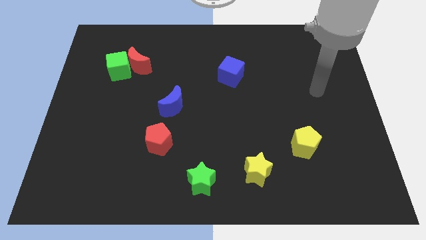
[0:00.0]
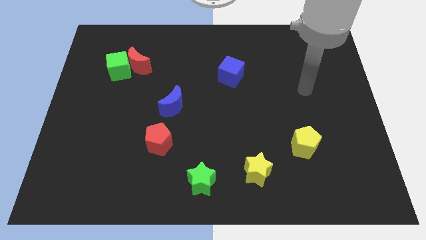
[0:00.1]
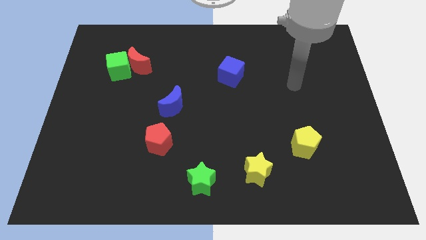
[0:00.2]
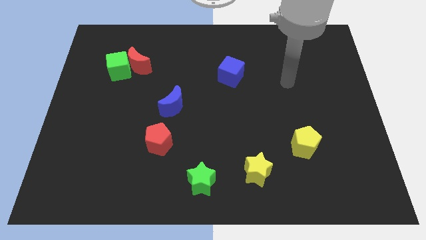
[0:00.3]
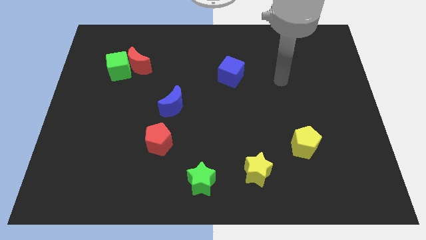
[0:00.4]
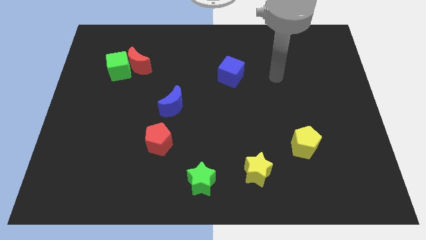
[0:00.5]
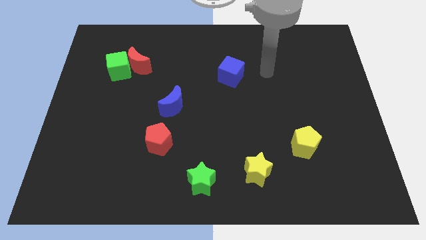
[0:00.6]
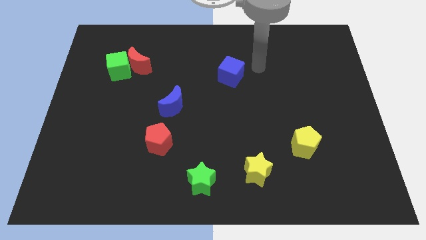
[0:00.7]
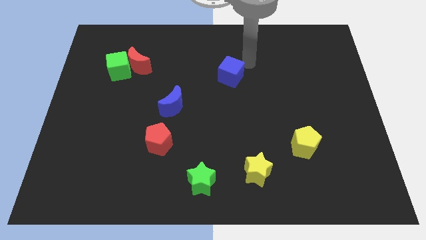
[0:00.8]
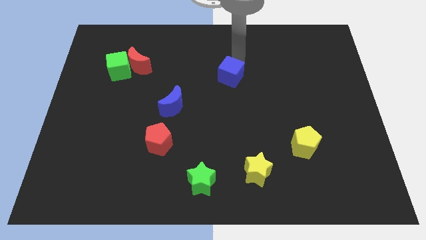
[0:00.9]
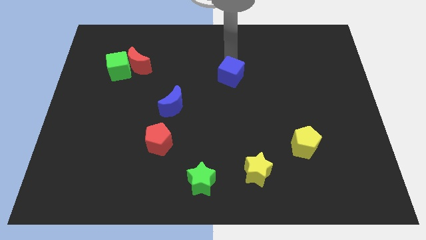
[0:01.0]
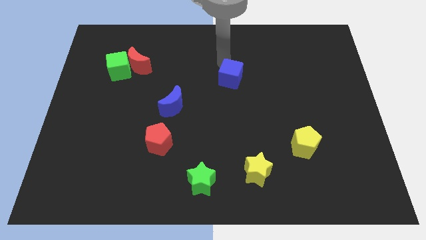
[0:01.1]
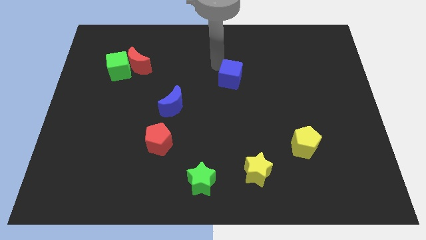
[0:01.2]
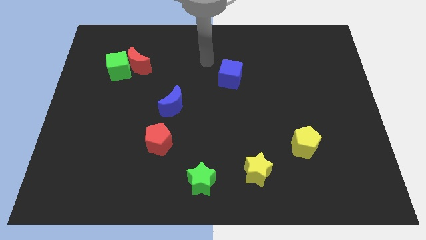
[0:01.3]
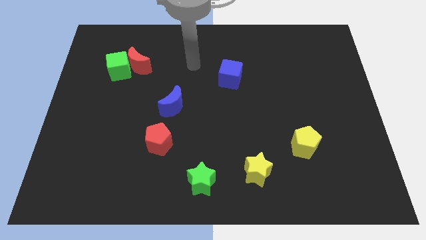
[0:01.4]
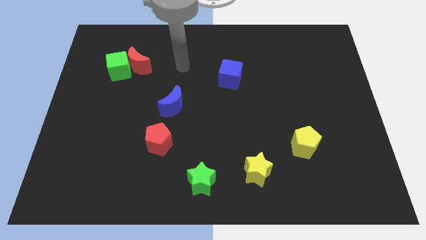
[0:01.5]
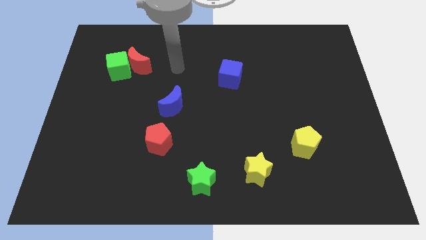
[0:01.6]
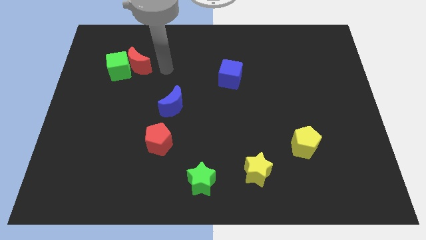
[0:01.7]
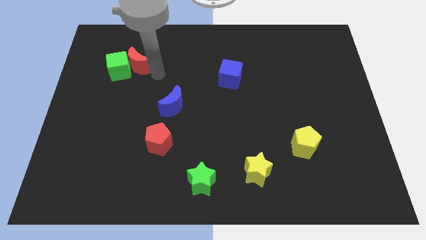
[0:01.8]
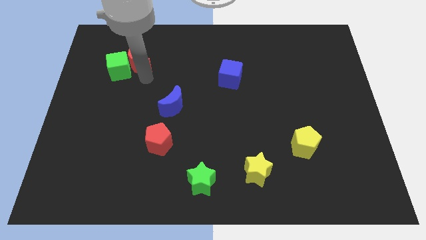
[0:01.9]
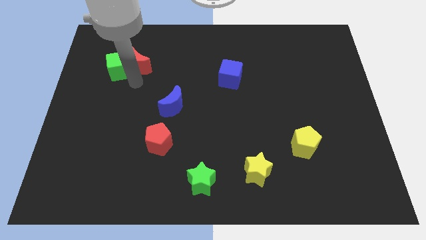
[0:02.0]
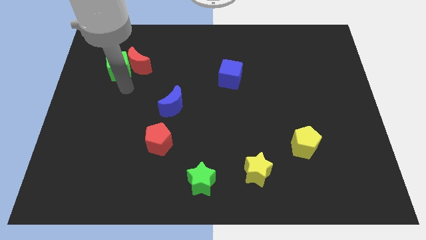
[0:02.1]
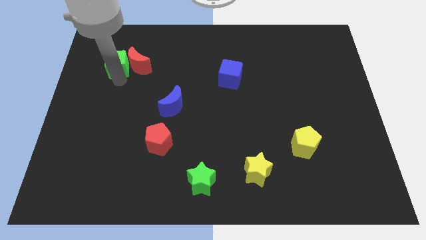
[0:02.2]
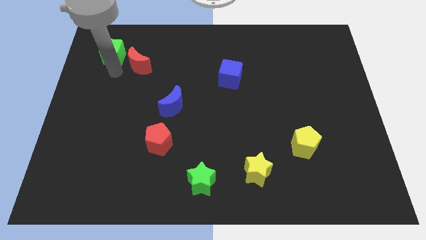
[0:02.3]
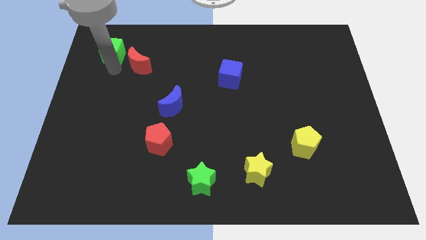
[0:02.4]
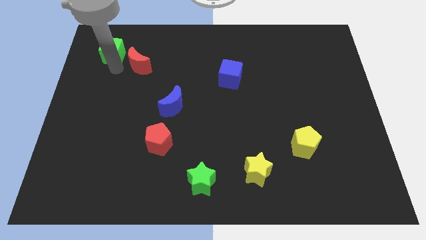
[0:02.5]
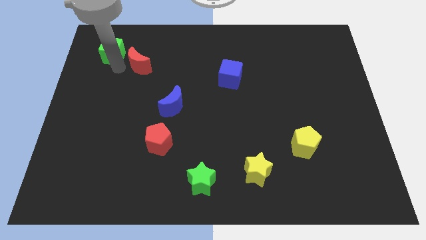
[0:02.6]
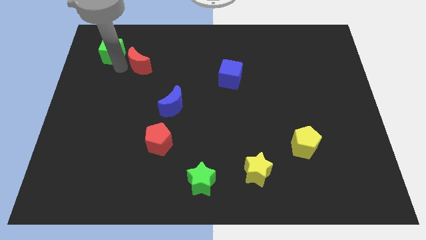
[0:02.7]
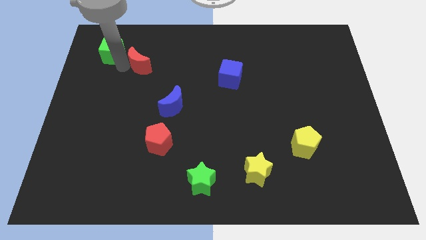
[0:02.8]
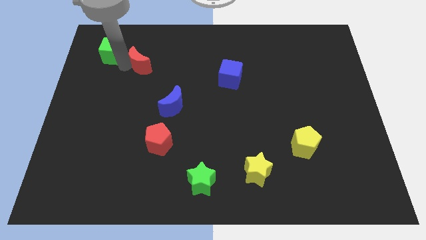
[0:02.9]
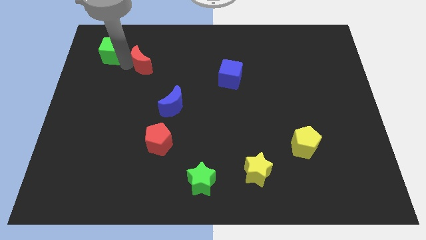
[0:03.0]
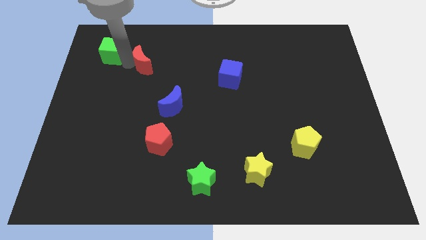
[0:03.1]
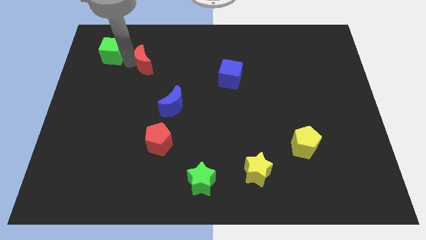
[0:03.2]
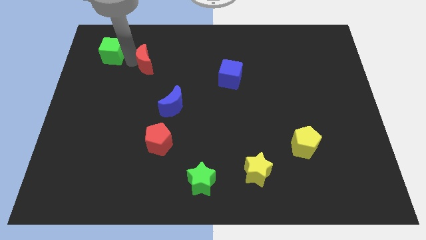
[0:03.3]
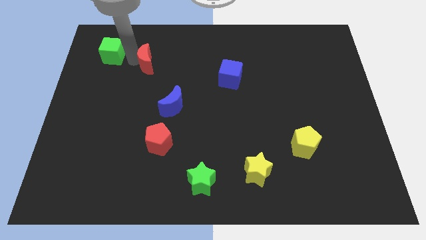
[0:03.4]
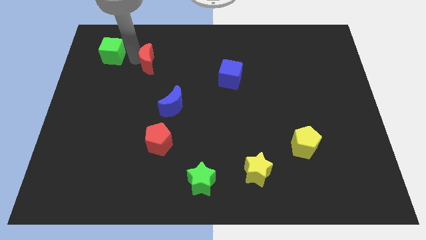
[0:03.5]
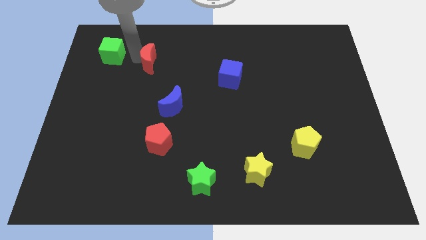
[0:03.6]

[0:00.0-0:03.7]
move the red moon away from the green cube

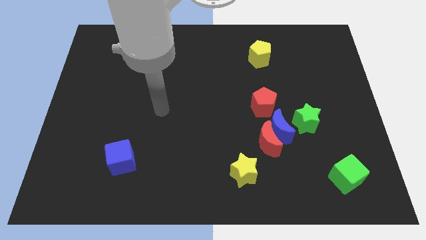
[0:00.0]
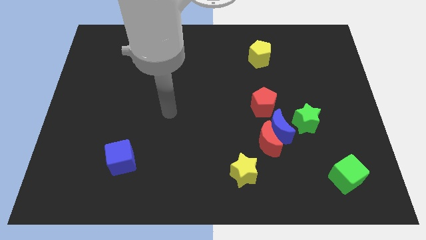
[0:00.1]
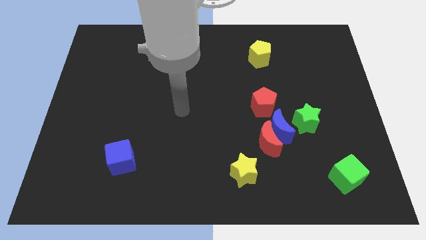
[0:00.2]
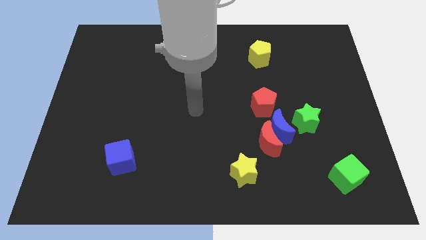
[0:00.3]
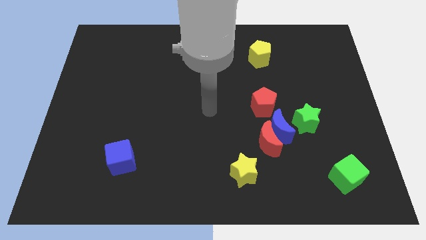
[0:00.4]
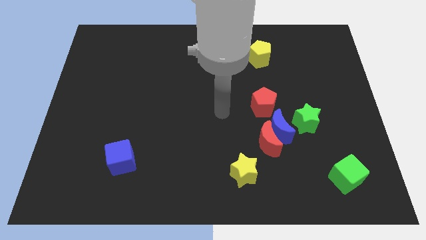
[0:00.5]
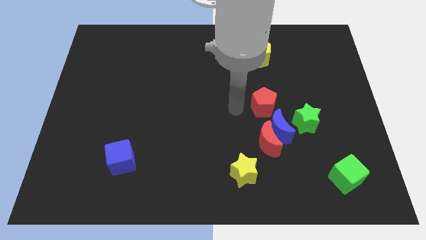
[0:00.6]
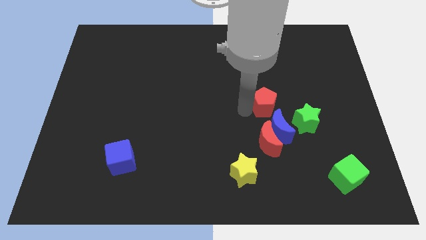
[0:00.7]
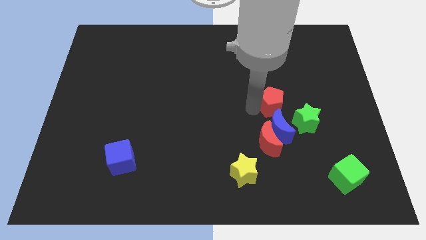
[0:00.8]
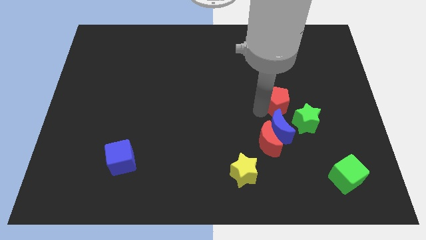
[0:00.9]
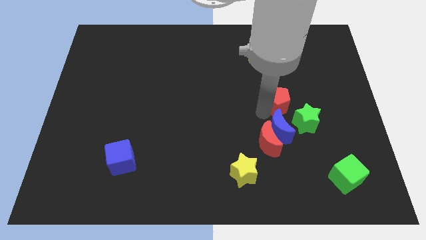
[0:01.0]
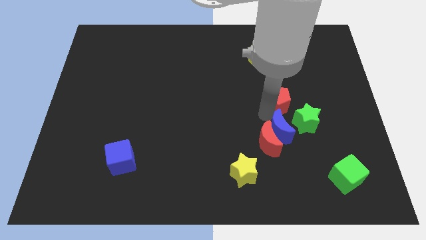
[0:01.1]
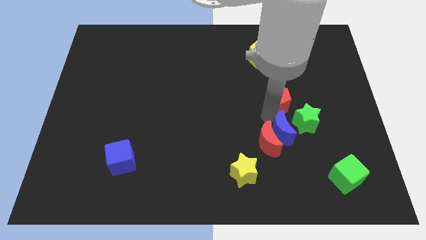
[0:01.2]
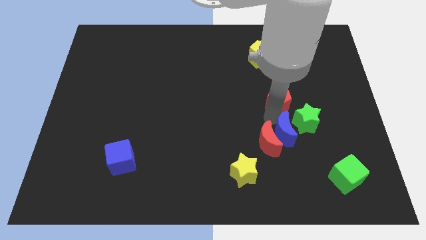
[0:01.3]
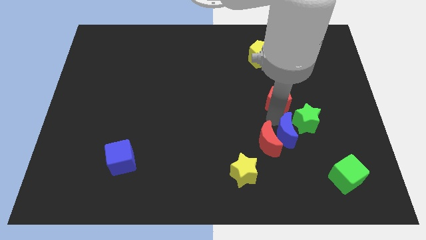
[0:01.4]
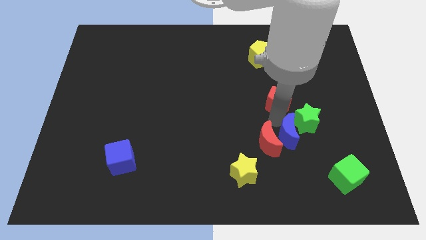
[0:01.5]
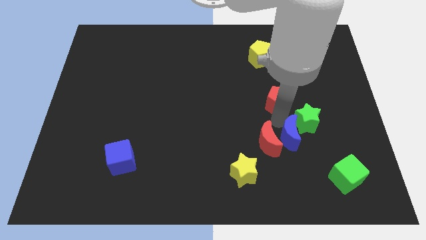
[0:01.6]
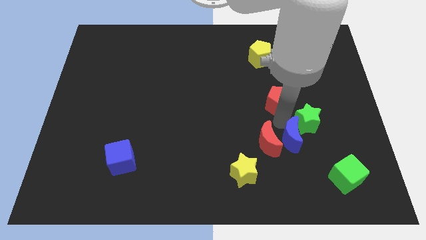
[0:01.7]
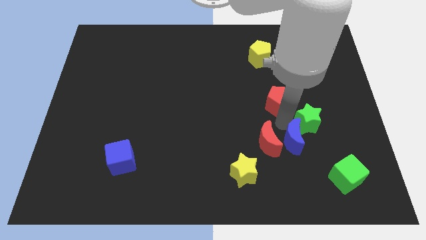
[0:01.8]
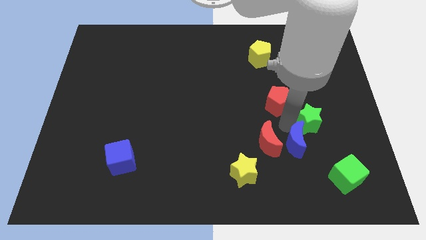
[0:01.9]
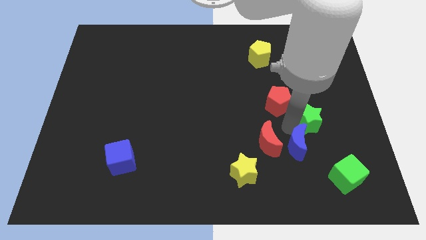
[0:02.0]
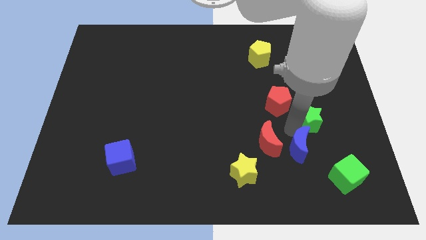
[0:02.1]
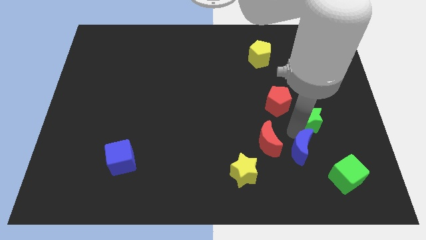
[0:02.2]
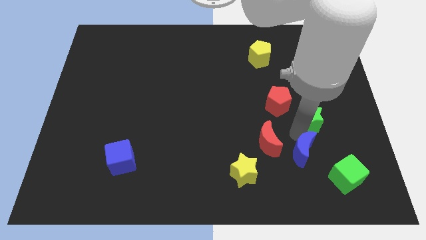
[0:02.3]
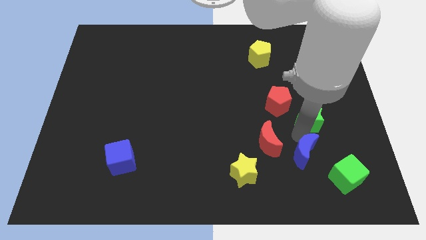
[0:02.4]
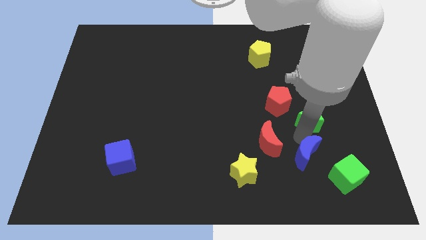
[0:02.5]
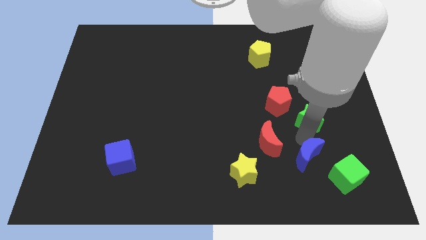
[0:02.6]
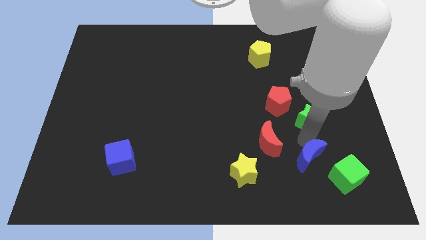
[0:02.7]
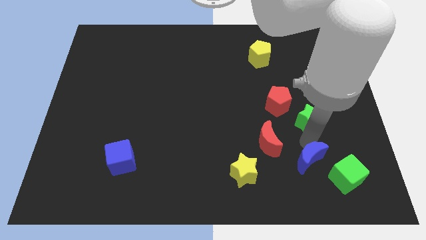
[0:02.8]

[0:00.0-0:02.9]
pull the blue moon apart from the red moon, green star, and red pentagon

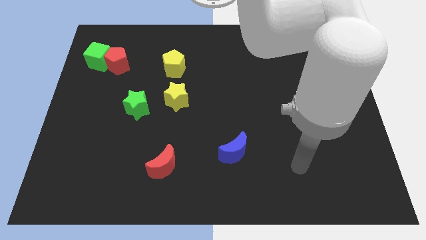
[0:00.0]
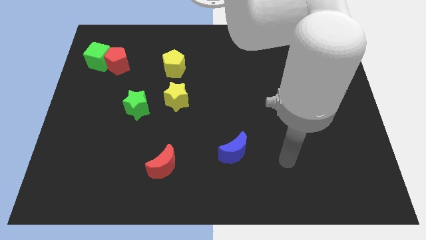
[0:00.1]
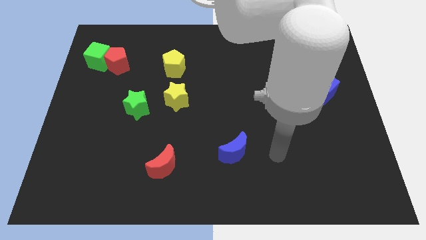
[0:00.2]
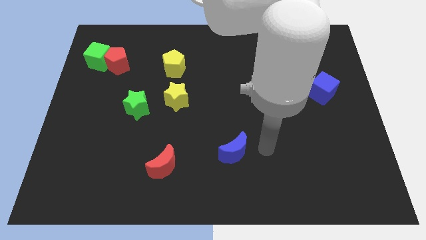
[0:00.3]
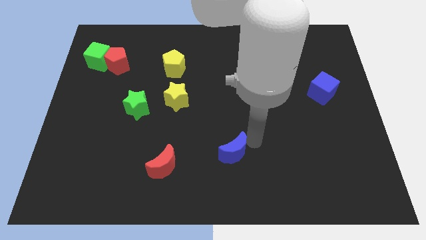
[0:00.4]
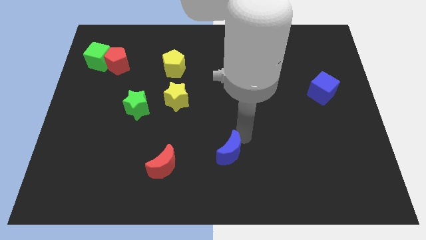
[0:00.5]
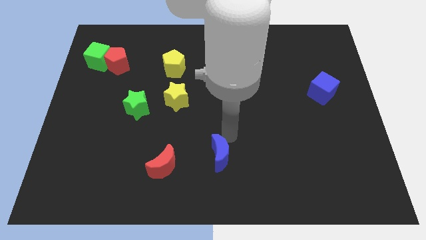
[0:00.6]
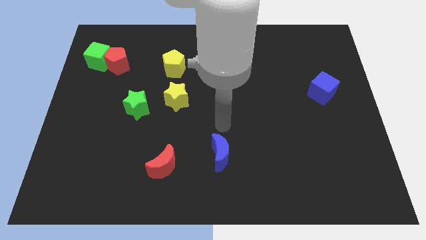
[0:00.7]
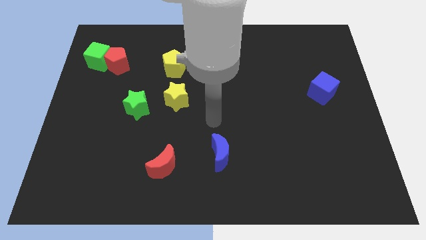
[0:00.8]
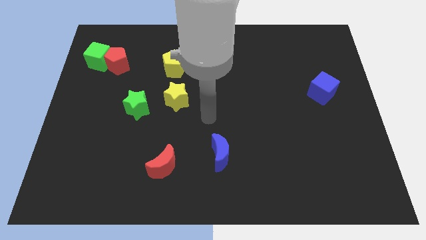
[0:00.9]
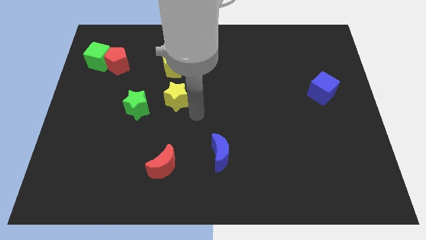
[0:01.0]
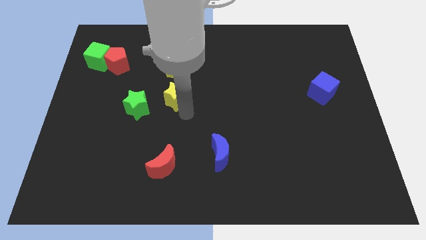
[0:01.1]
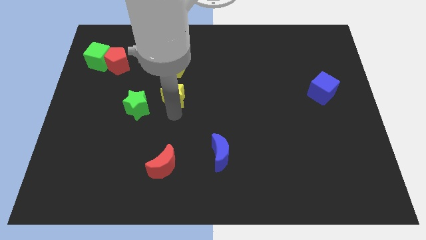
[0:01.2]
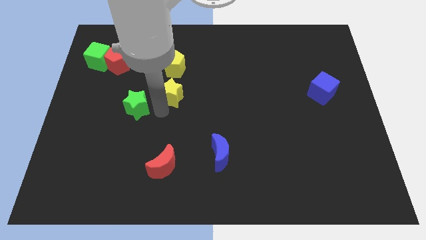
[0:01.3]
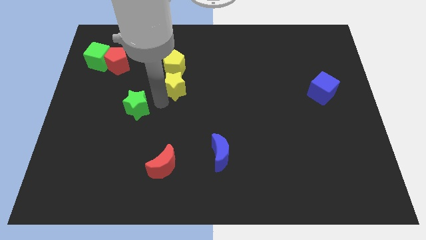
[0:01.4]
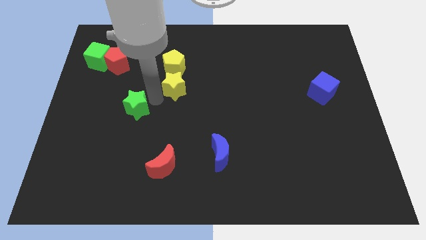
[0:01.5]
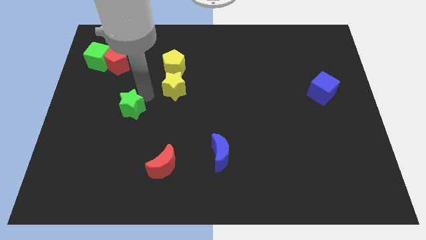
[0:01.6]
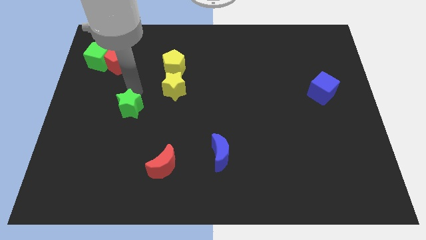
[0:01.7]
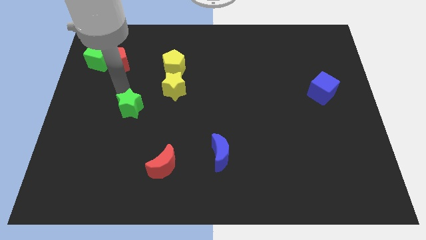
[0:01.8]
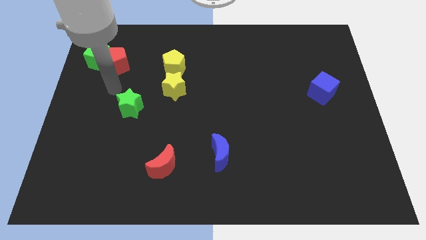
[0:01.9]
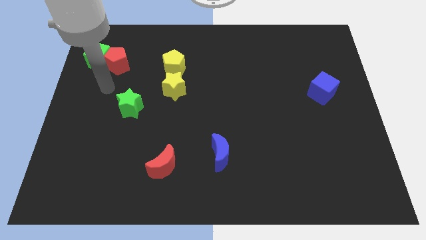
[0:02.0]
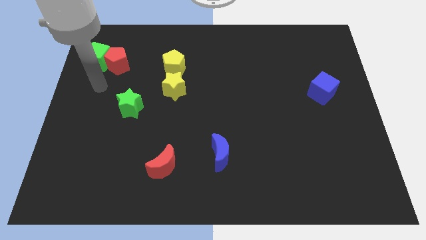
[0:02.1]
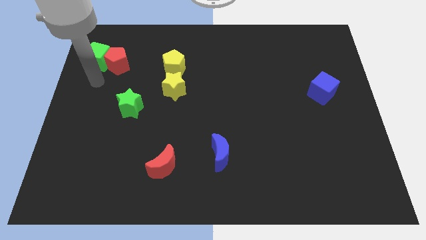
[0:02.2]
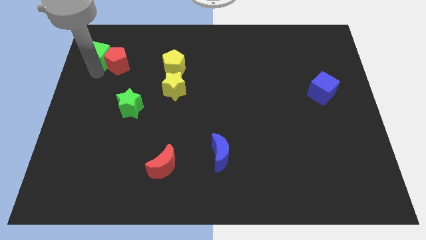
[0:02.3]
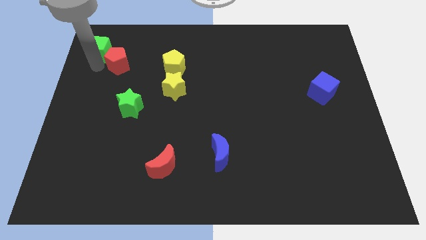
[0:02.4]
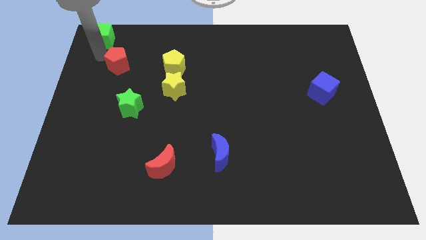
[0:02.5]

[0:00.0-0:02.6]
separate the red pentagon from the green cube

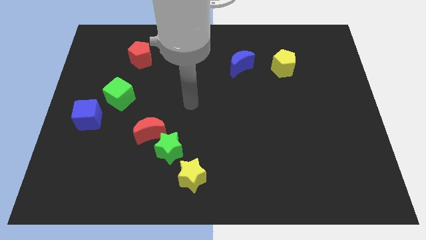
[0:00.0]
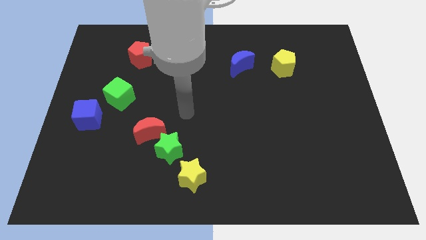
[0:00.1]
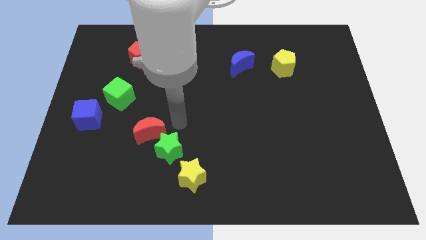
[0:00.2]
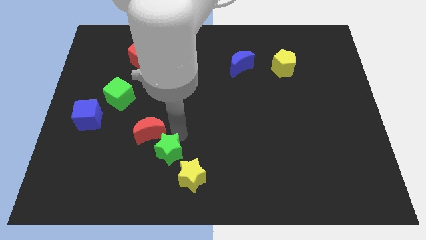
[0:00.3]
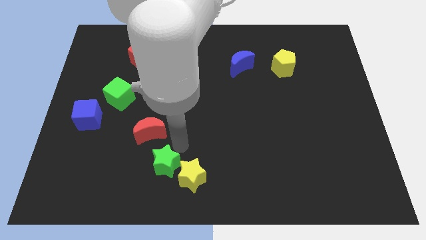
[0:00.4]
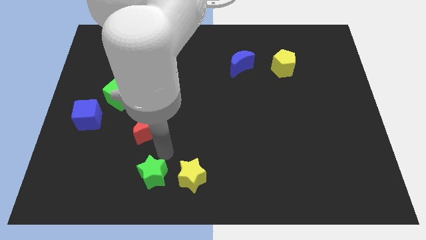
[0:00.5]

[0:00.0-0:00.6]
separate the red moon from the green star
